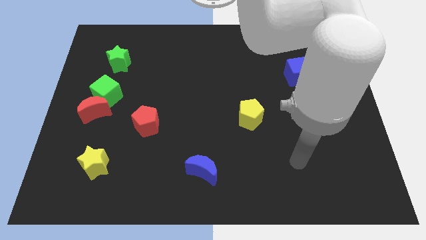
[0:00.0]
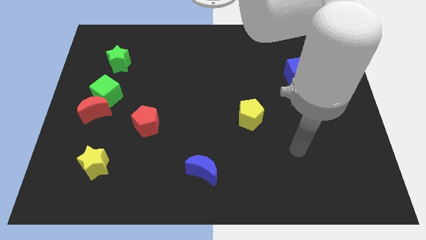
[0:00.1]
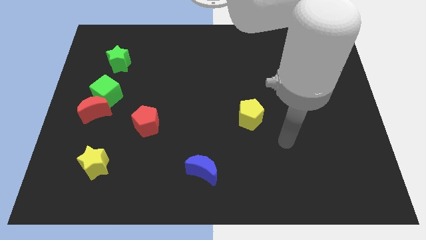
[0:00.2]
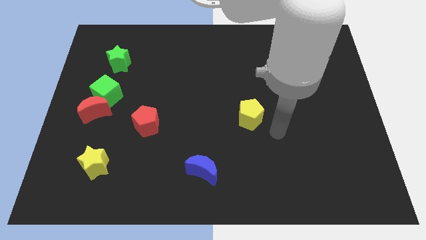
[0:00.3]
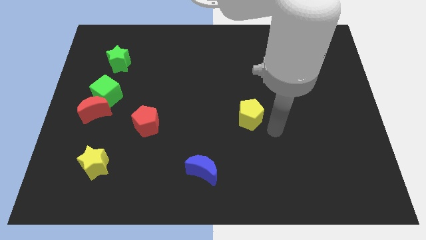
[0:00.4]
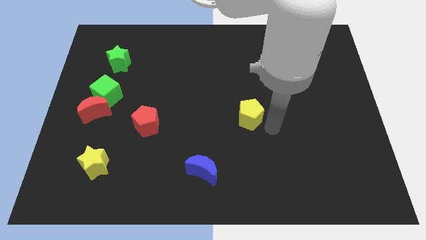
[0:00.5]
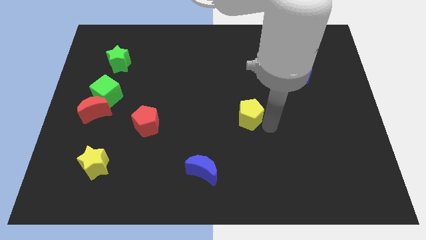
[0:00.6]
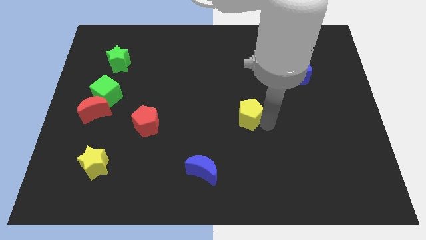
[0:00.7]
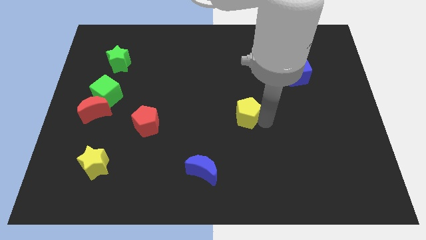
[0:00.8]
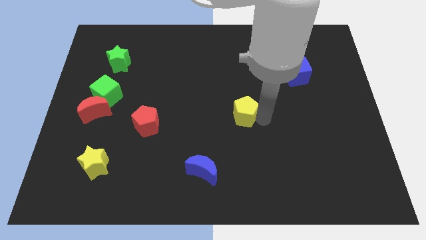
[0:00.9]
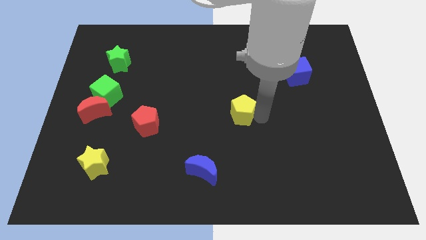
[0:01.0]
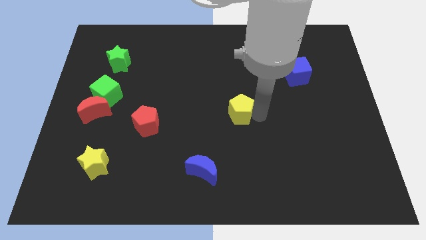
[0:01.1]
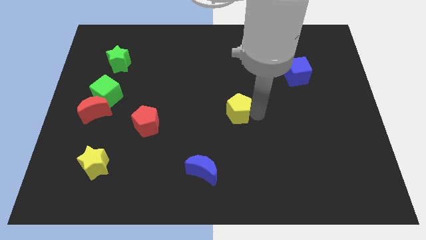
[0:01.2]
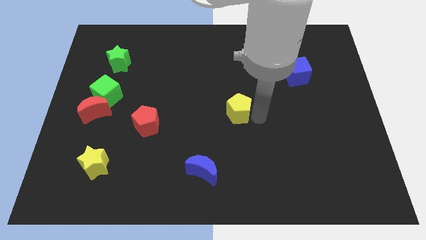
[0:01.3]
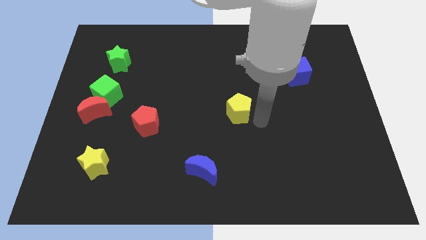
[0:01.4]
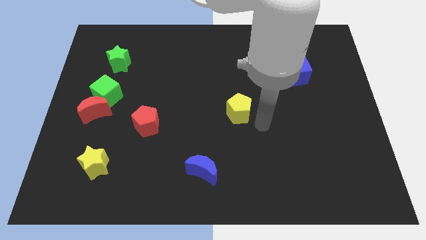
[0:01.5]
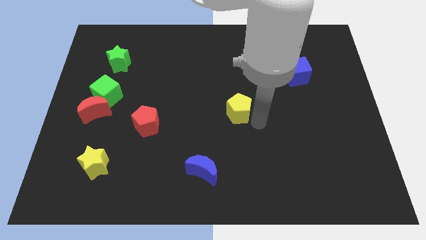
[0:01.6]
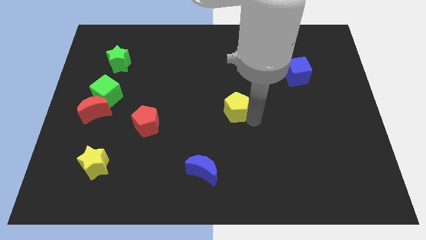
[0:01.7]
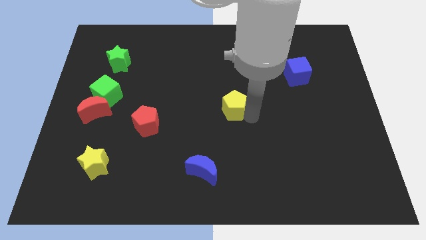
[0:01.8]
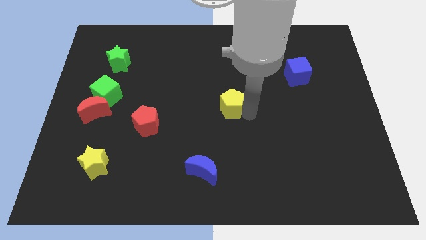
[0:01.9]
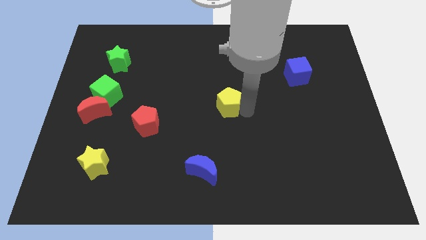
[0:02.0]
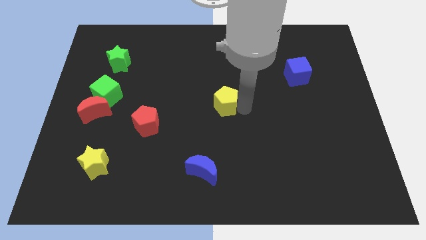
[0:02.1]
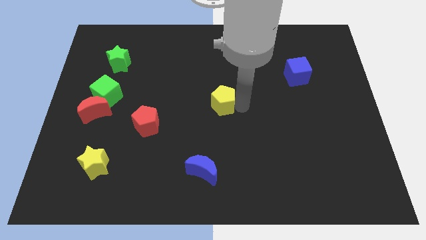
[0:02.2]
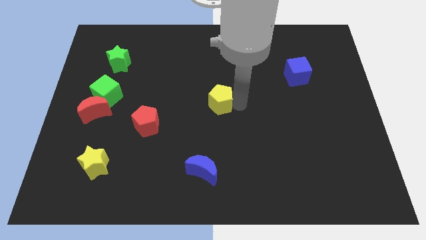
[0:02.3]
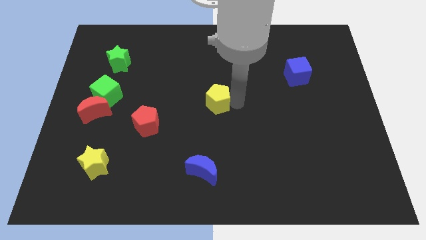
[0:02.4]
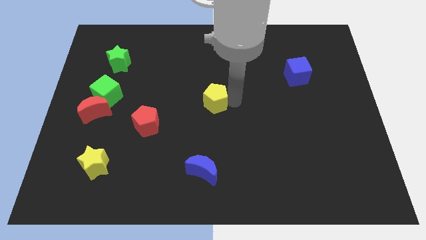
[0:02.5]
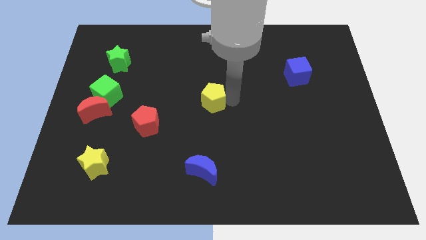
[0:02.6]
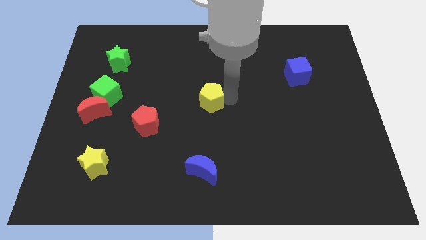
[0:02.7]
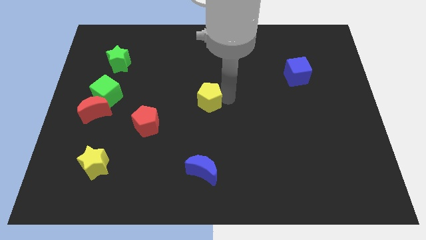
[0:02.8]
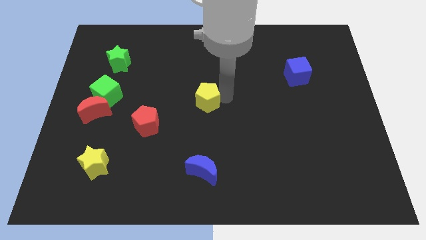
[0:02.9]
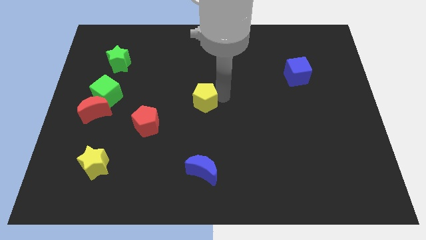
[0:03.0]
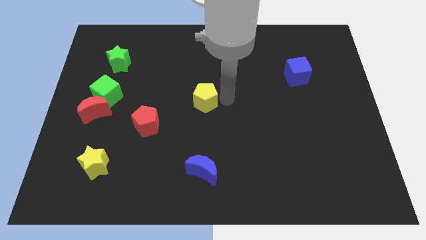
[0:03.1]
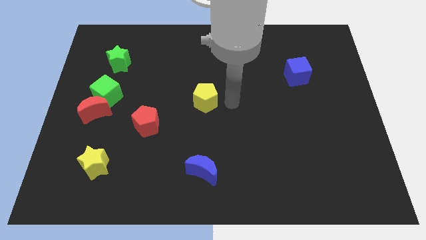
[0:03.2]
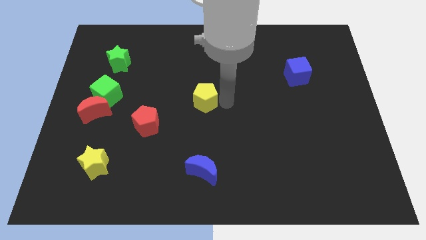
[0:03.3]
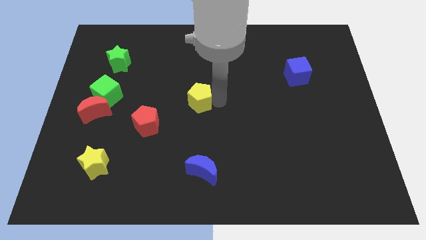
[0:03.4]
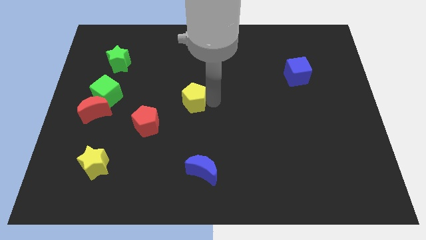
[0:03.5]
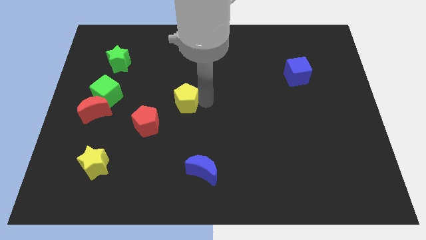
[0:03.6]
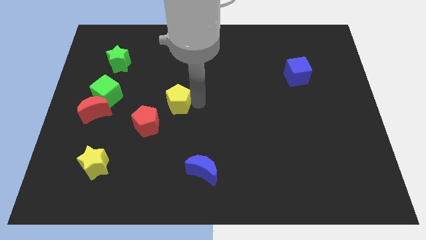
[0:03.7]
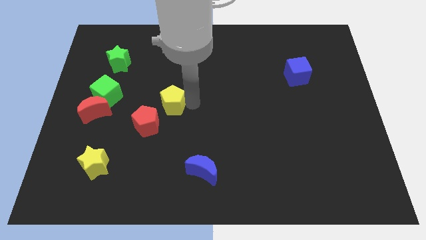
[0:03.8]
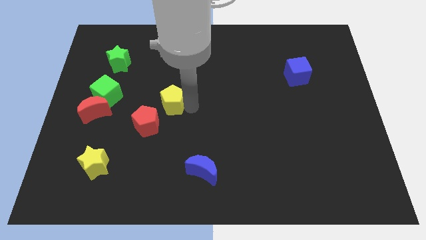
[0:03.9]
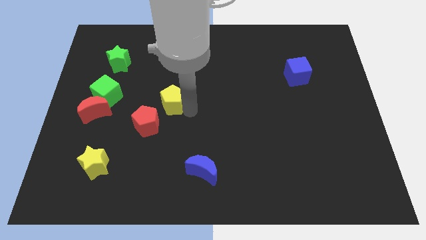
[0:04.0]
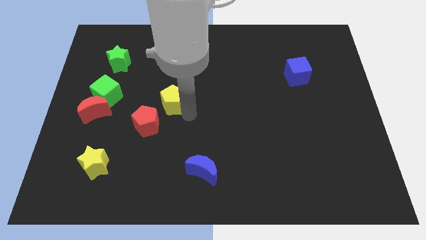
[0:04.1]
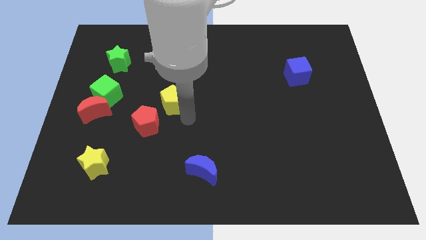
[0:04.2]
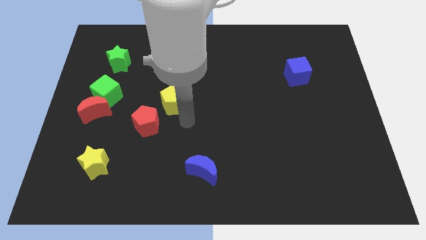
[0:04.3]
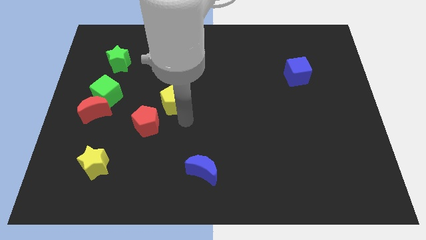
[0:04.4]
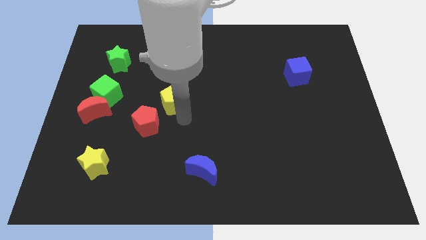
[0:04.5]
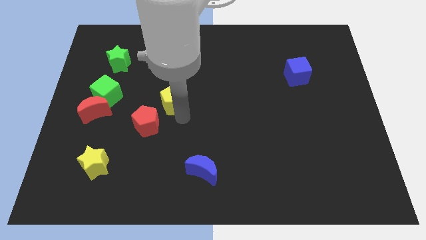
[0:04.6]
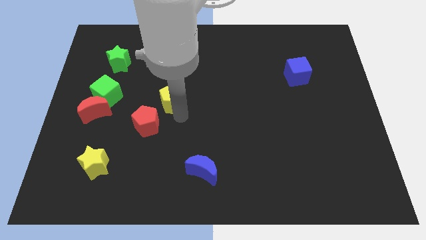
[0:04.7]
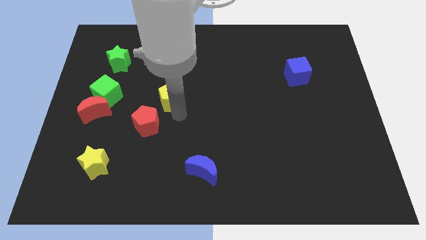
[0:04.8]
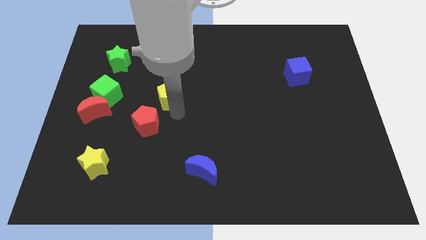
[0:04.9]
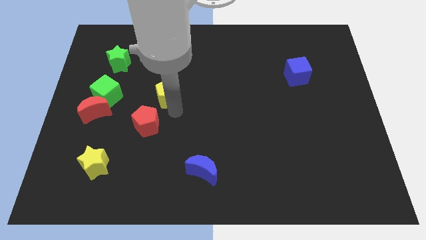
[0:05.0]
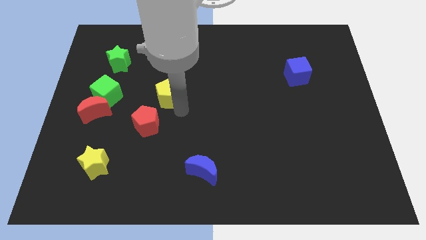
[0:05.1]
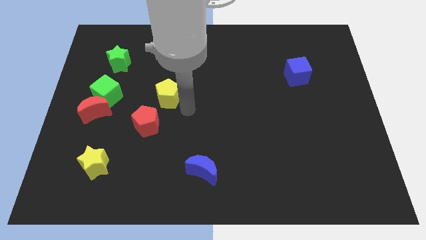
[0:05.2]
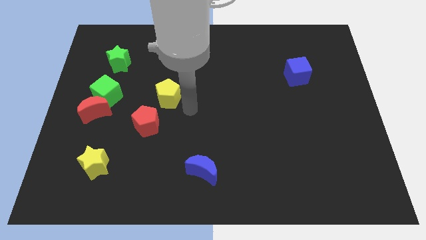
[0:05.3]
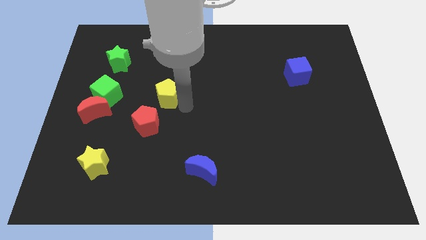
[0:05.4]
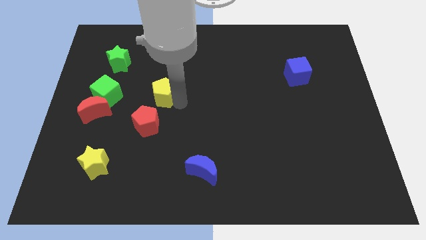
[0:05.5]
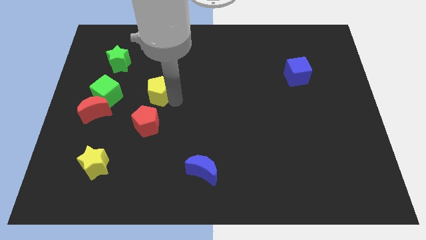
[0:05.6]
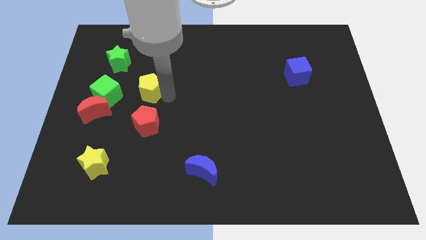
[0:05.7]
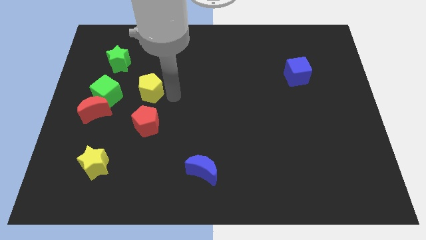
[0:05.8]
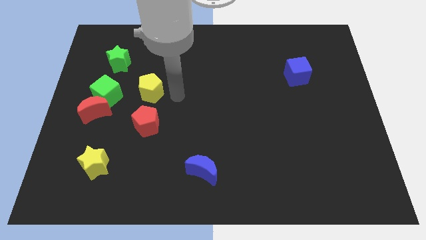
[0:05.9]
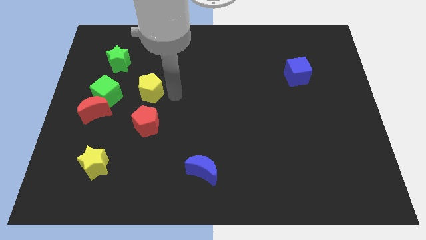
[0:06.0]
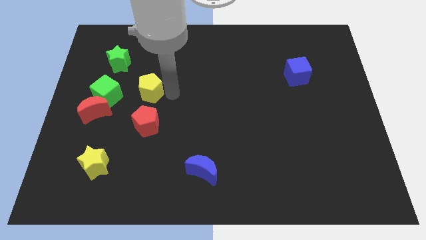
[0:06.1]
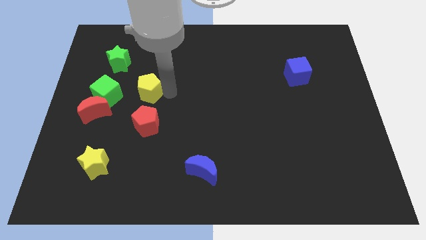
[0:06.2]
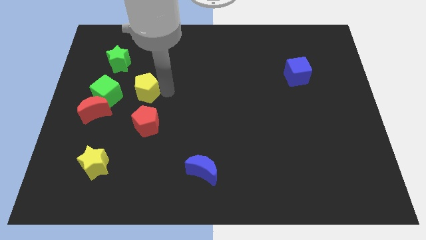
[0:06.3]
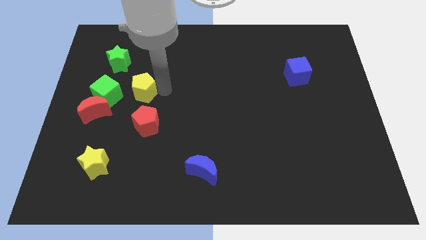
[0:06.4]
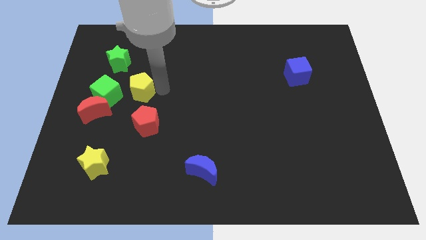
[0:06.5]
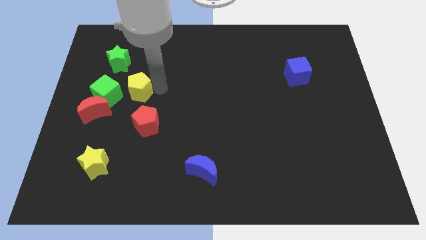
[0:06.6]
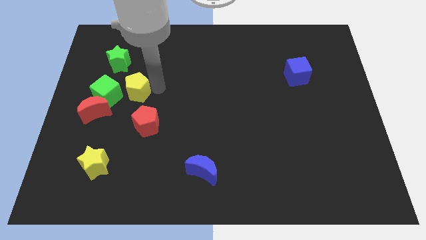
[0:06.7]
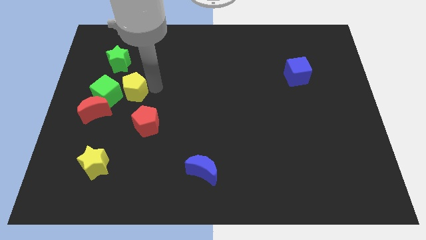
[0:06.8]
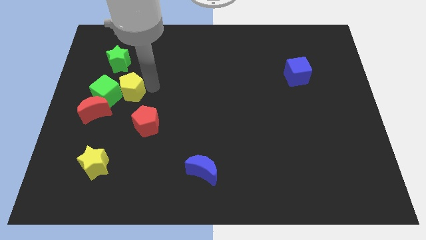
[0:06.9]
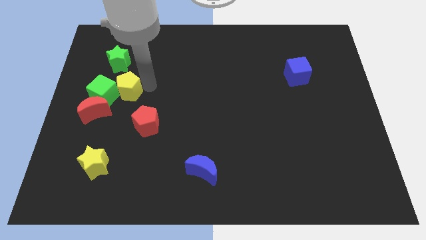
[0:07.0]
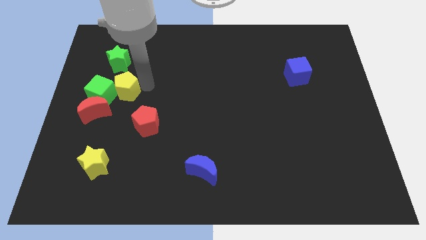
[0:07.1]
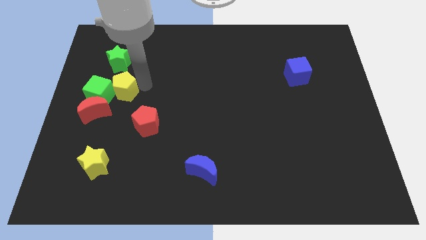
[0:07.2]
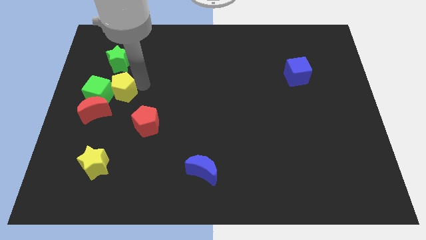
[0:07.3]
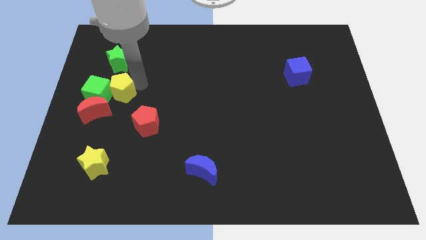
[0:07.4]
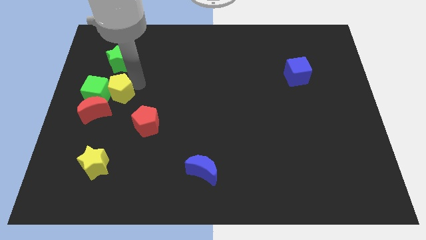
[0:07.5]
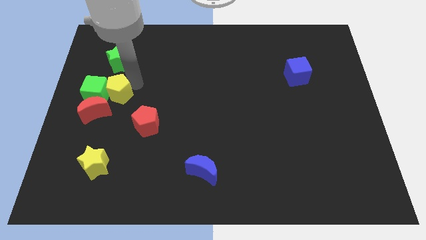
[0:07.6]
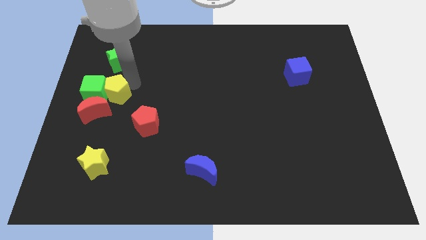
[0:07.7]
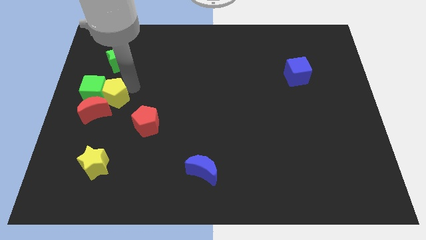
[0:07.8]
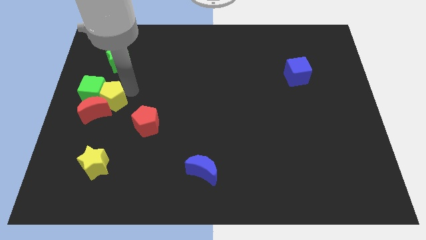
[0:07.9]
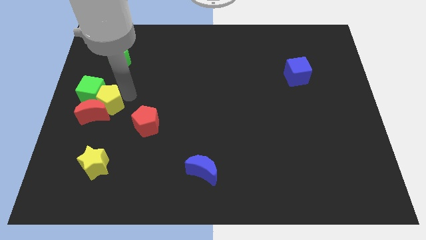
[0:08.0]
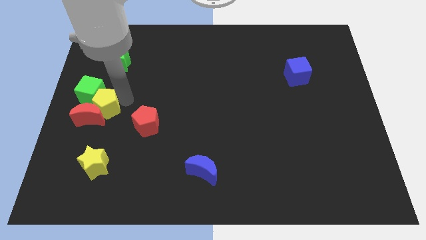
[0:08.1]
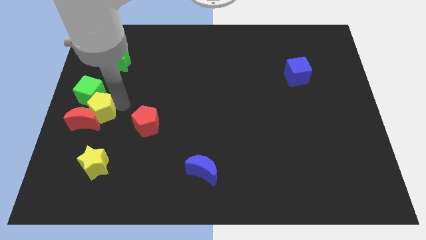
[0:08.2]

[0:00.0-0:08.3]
put the yellow pentagon to the center left
